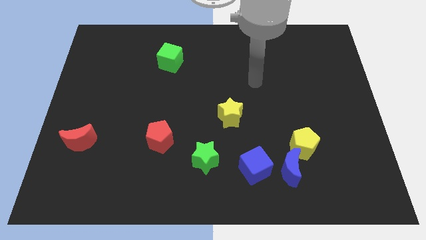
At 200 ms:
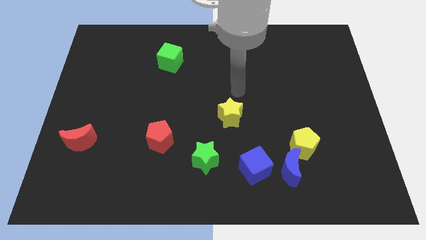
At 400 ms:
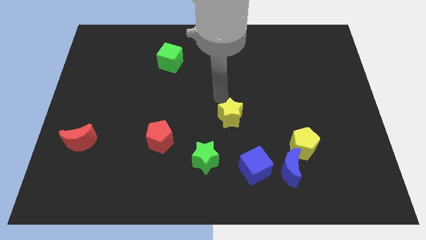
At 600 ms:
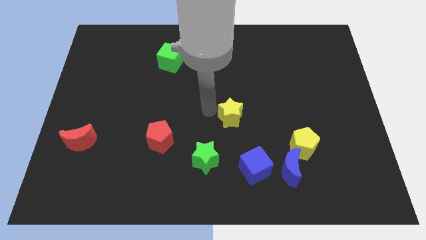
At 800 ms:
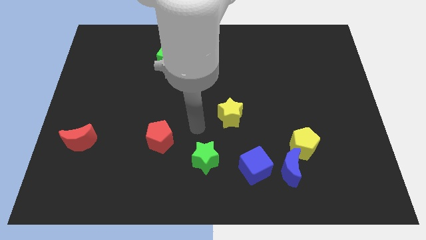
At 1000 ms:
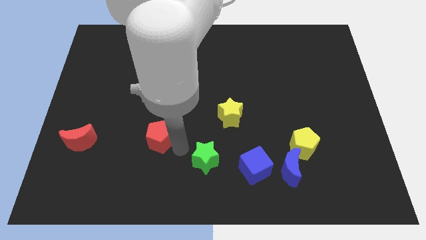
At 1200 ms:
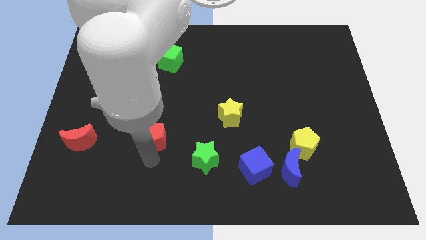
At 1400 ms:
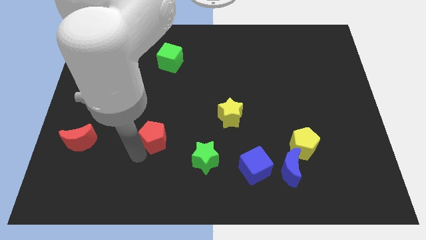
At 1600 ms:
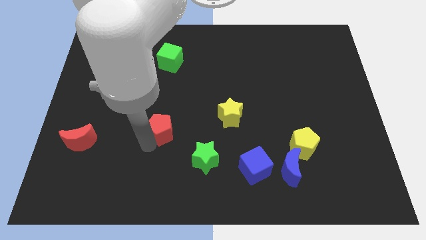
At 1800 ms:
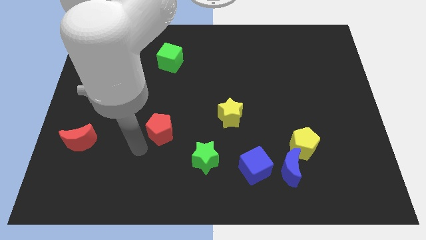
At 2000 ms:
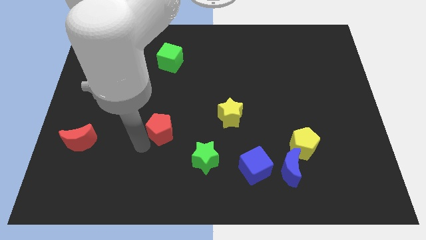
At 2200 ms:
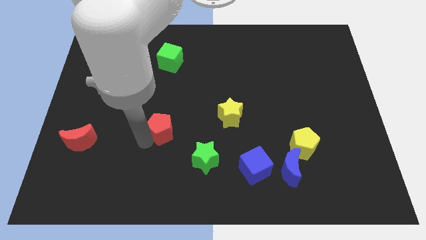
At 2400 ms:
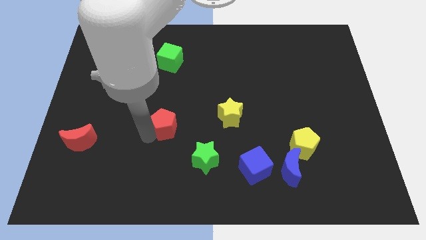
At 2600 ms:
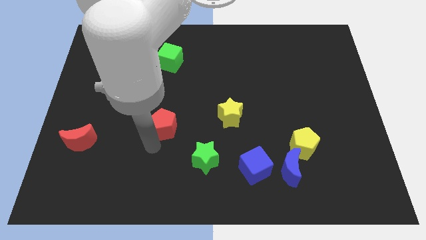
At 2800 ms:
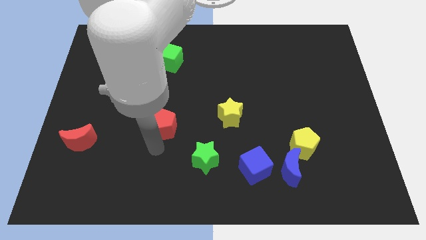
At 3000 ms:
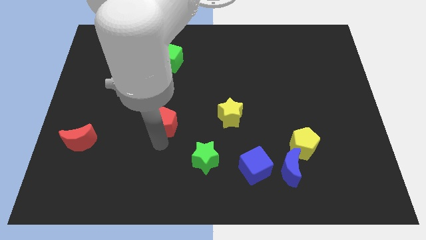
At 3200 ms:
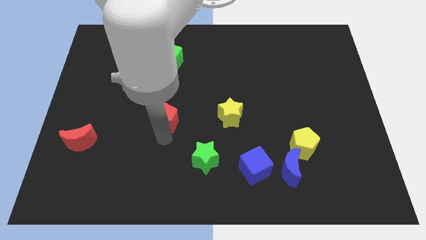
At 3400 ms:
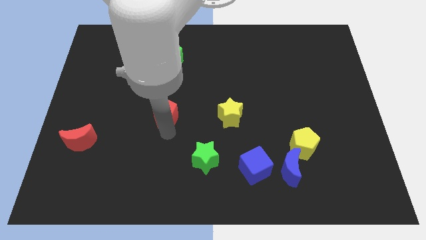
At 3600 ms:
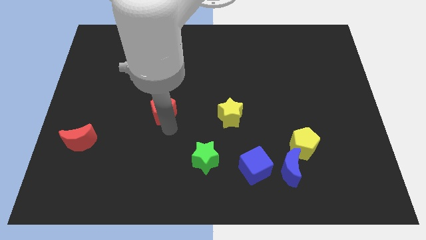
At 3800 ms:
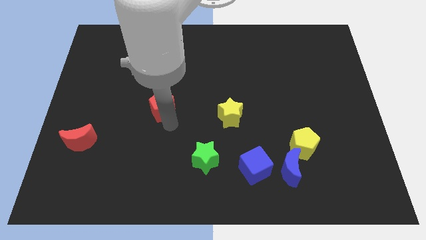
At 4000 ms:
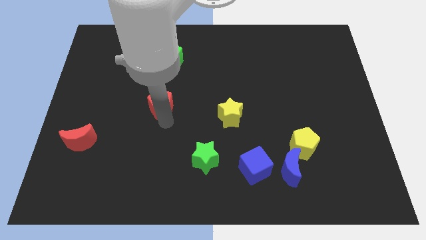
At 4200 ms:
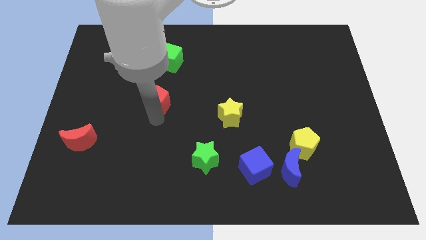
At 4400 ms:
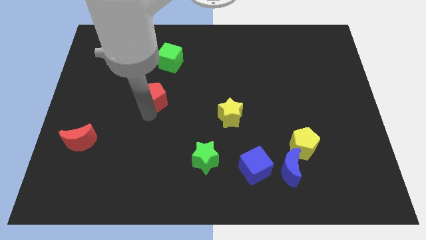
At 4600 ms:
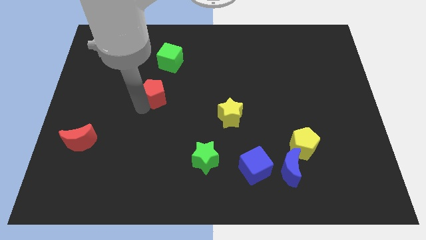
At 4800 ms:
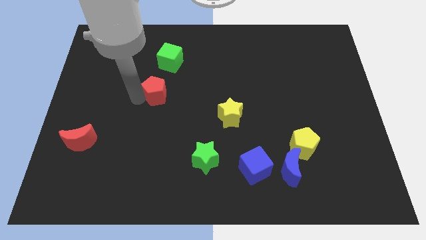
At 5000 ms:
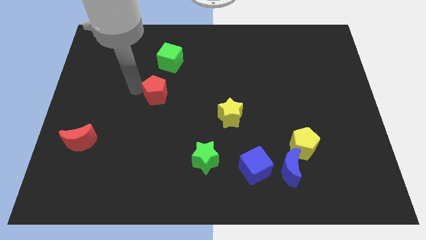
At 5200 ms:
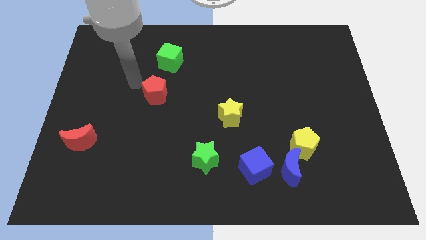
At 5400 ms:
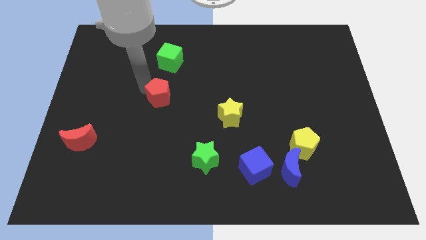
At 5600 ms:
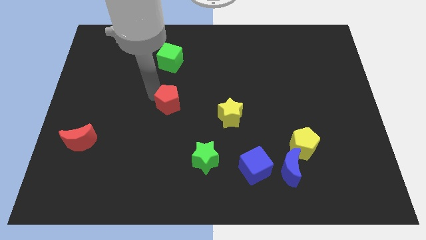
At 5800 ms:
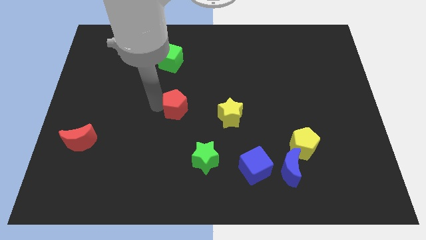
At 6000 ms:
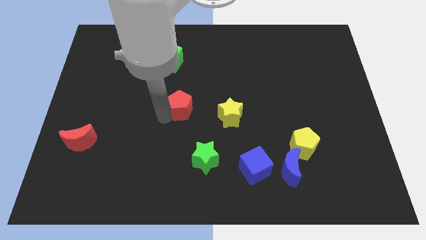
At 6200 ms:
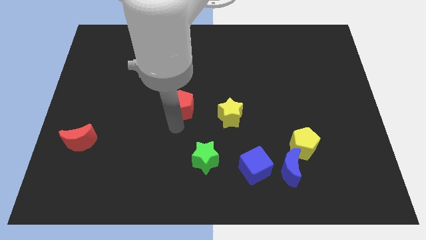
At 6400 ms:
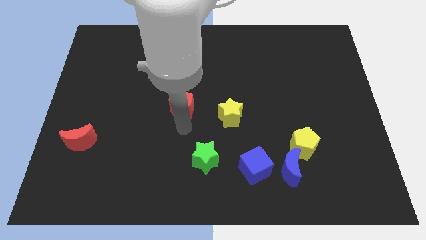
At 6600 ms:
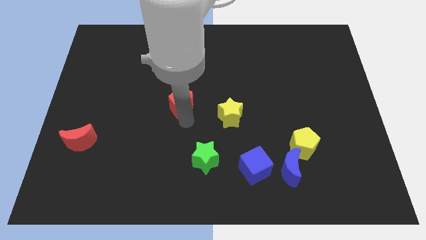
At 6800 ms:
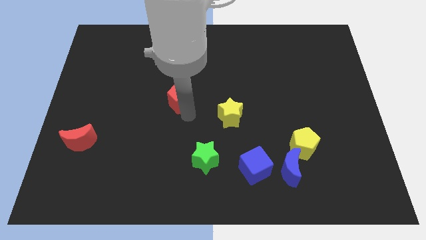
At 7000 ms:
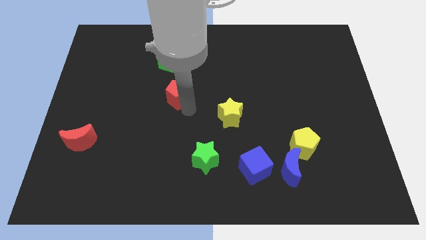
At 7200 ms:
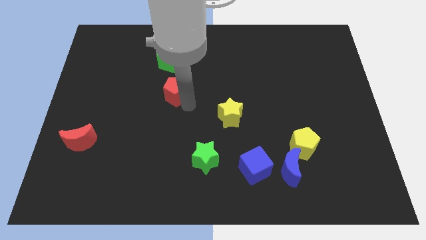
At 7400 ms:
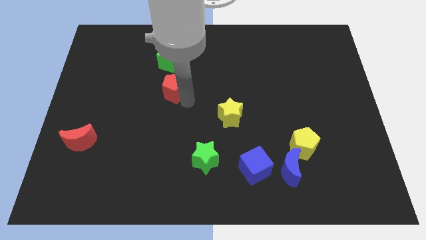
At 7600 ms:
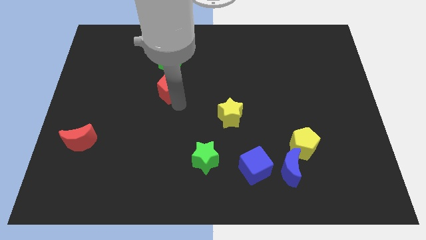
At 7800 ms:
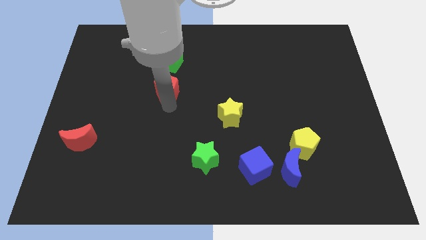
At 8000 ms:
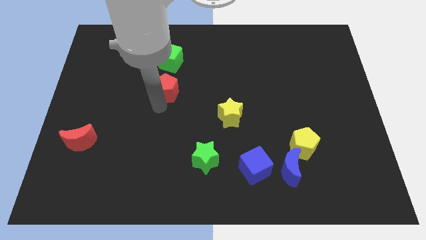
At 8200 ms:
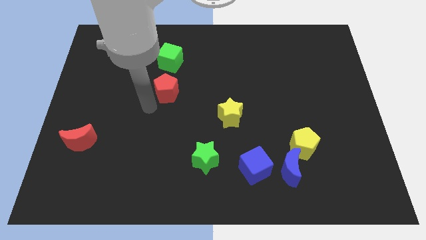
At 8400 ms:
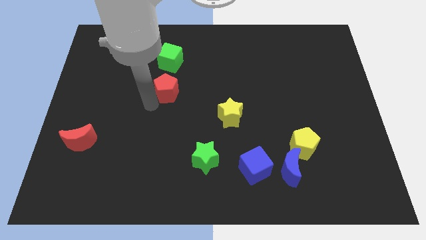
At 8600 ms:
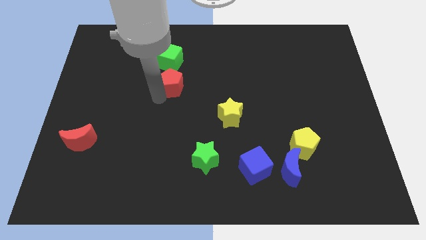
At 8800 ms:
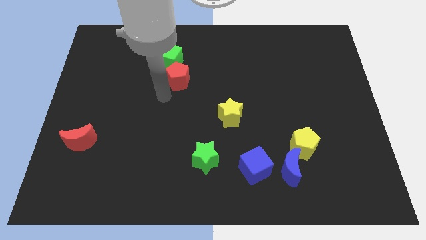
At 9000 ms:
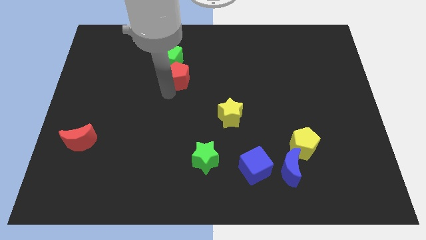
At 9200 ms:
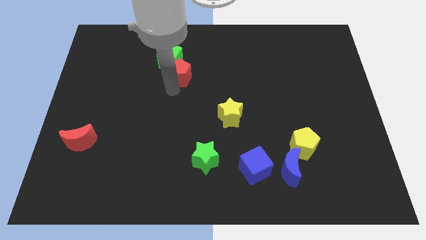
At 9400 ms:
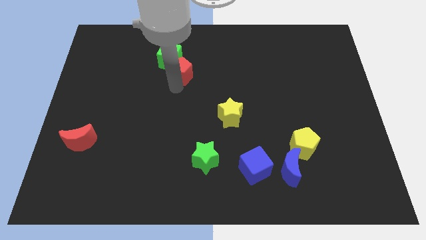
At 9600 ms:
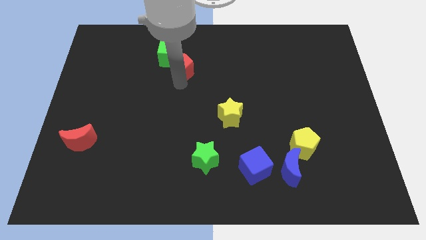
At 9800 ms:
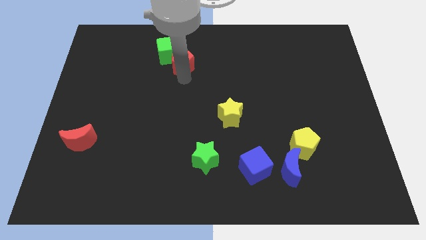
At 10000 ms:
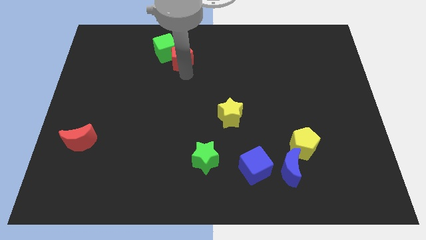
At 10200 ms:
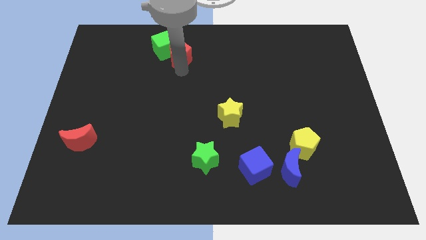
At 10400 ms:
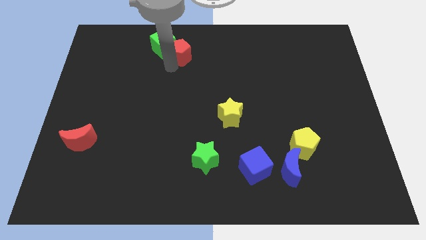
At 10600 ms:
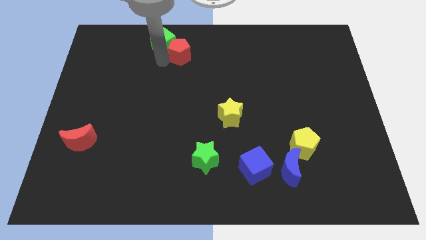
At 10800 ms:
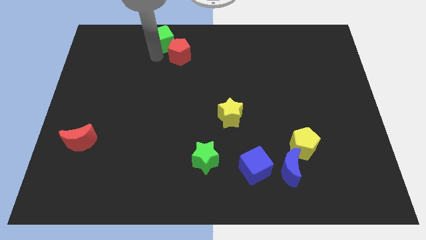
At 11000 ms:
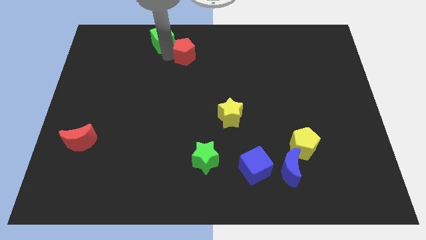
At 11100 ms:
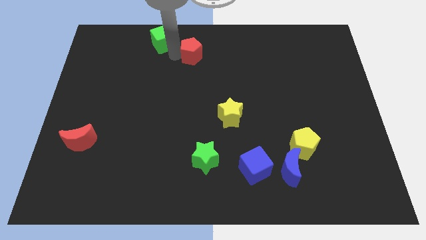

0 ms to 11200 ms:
put the red pentagon to the towards your base

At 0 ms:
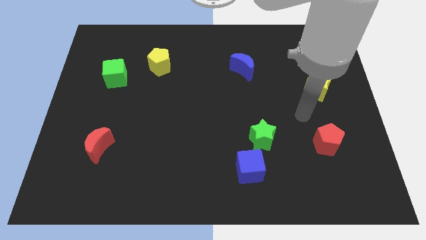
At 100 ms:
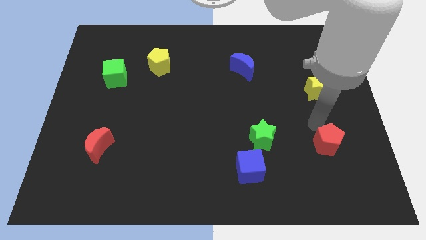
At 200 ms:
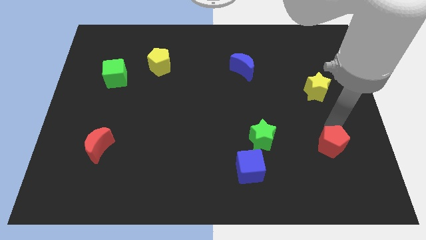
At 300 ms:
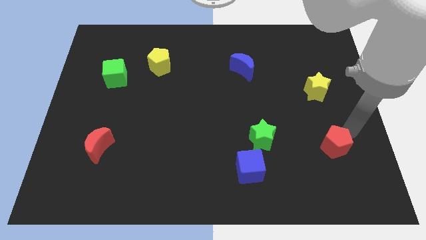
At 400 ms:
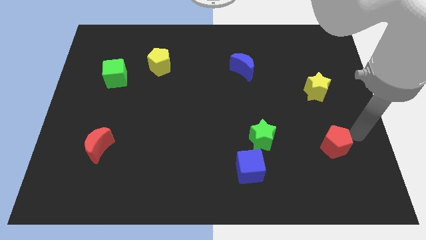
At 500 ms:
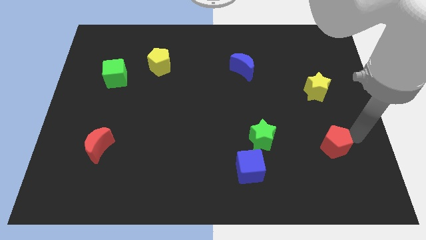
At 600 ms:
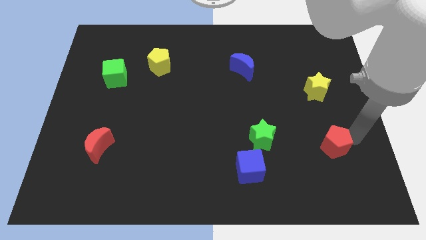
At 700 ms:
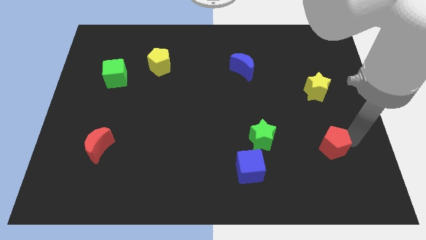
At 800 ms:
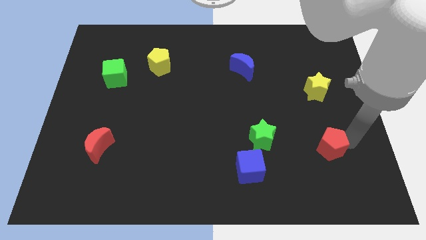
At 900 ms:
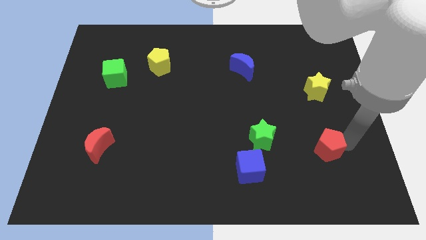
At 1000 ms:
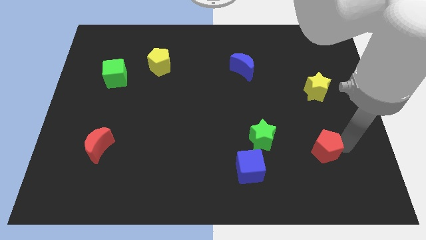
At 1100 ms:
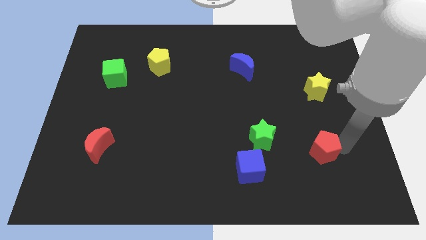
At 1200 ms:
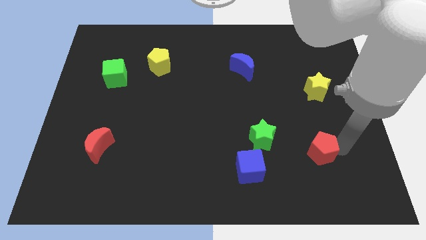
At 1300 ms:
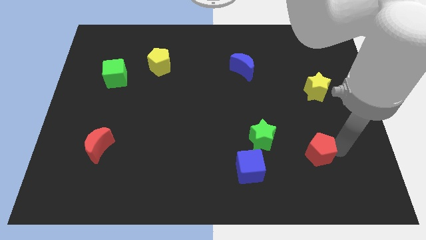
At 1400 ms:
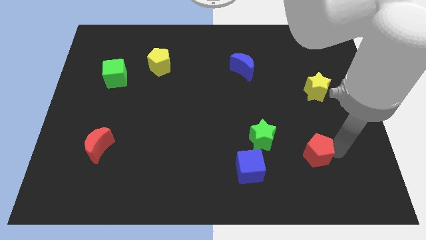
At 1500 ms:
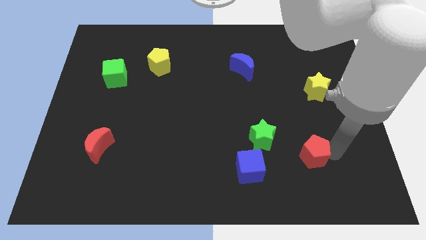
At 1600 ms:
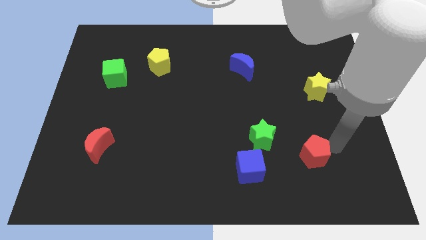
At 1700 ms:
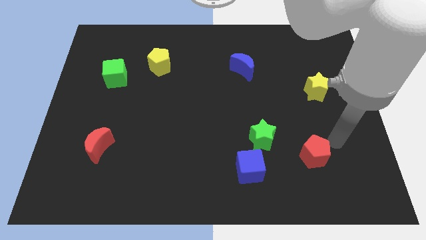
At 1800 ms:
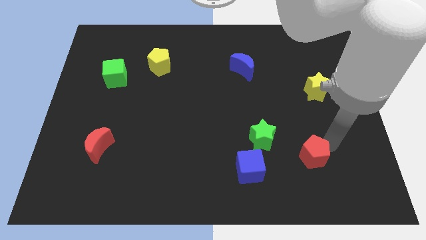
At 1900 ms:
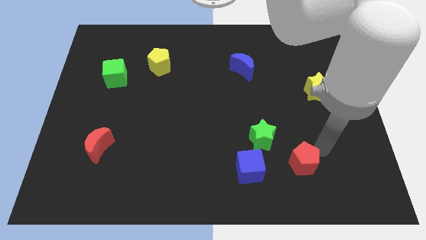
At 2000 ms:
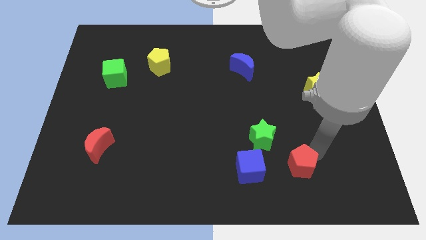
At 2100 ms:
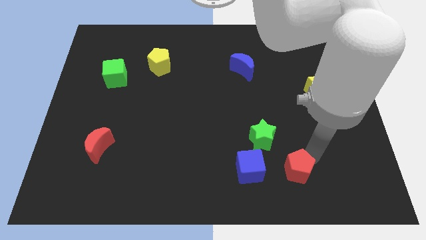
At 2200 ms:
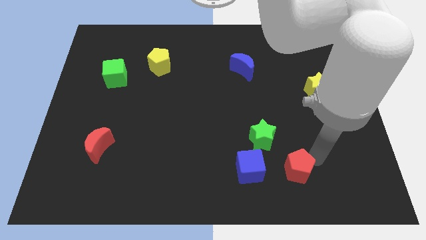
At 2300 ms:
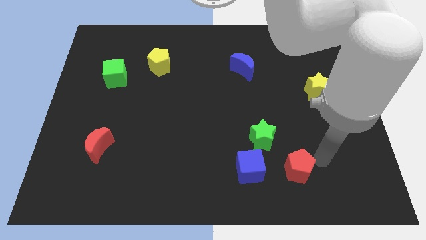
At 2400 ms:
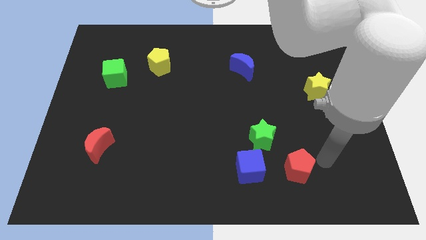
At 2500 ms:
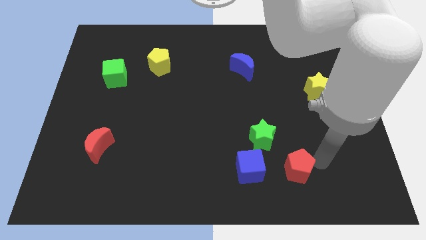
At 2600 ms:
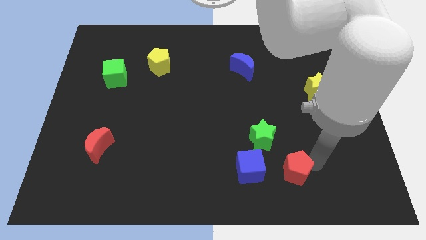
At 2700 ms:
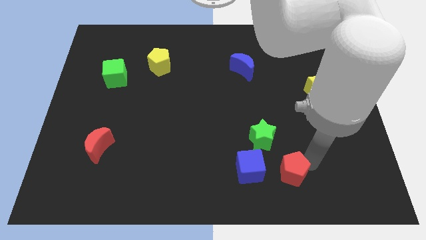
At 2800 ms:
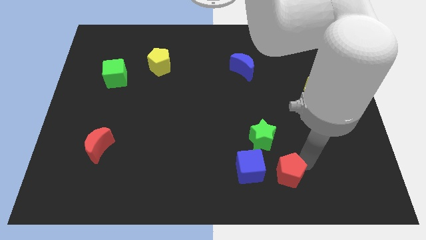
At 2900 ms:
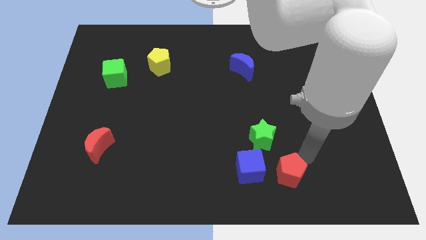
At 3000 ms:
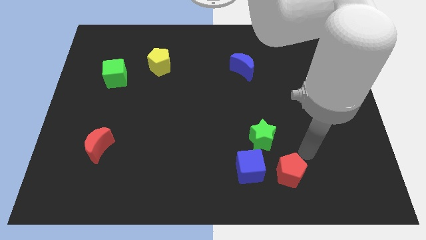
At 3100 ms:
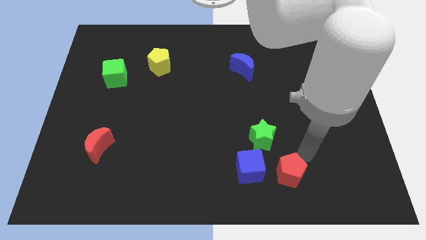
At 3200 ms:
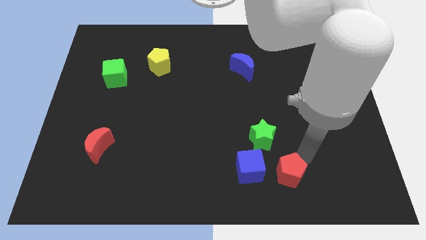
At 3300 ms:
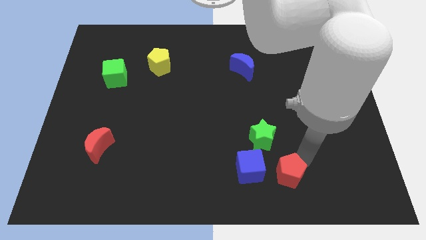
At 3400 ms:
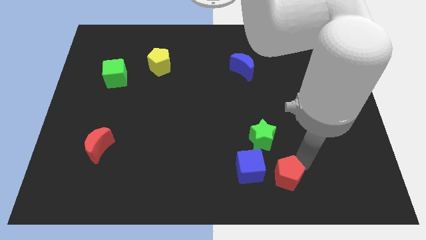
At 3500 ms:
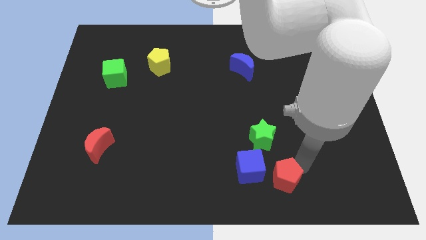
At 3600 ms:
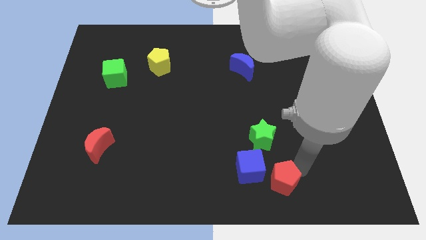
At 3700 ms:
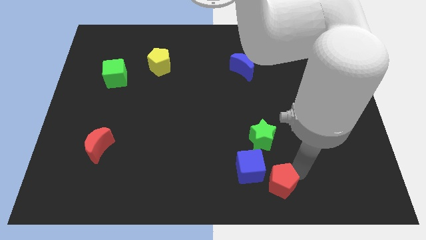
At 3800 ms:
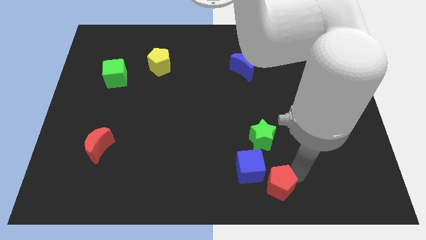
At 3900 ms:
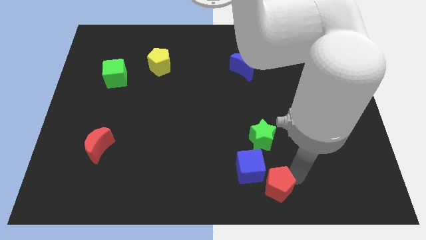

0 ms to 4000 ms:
move the red pentagon to the bottom side
